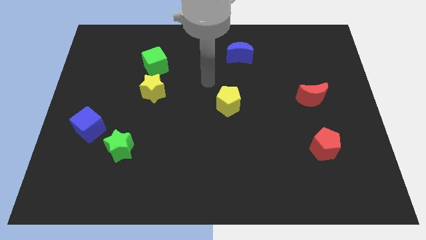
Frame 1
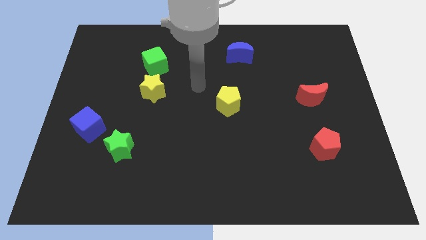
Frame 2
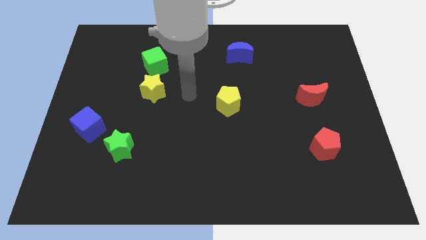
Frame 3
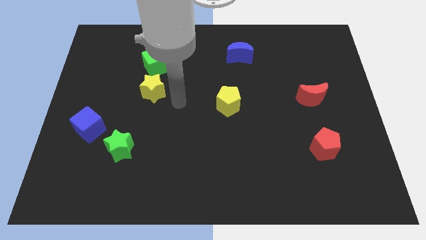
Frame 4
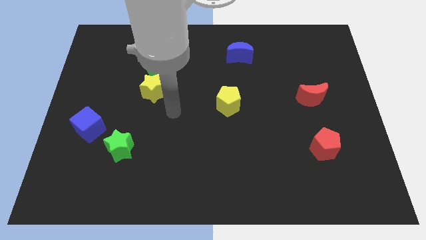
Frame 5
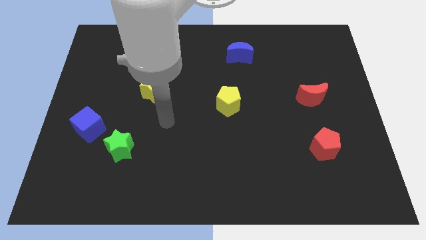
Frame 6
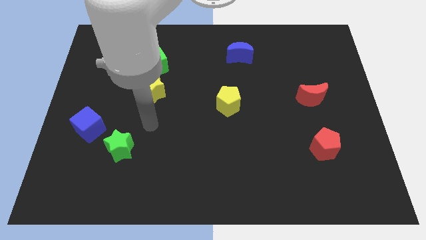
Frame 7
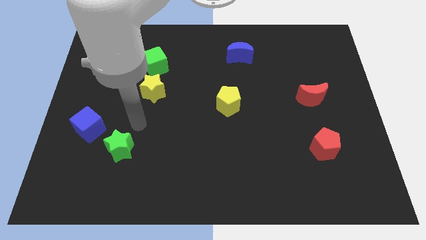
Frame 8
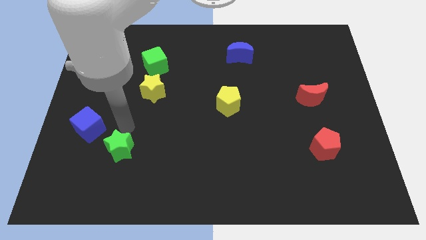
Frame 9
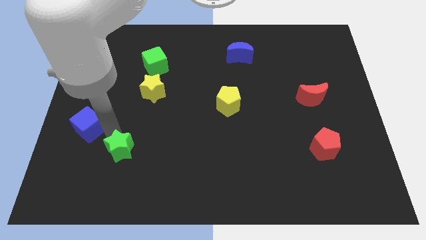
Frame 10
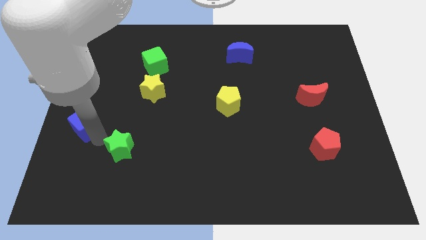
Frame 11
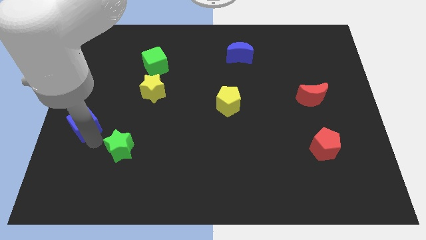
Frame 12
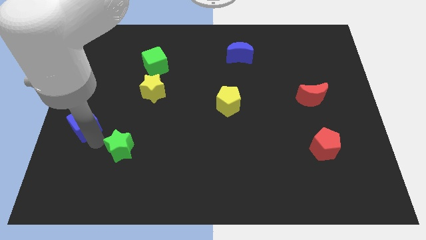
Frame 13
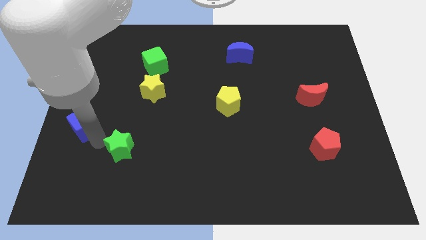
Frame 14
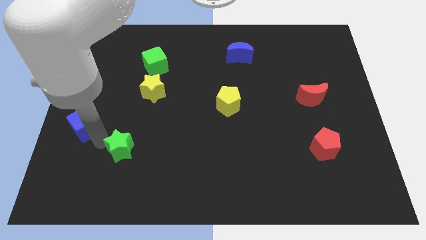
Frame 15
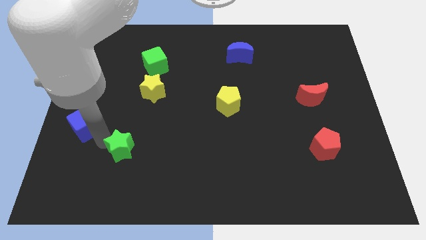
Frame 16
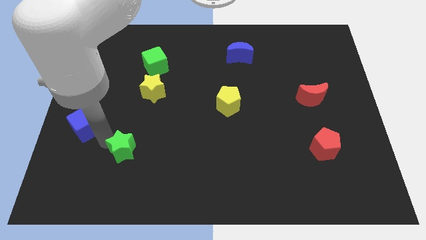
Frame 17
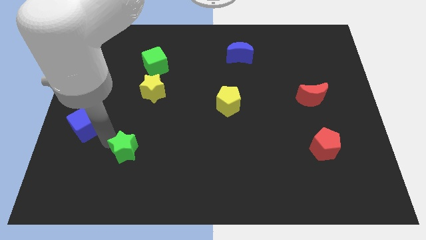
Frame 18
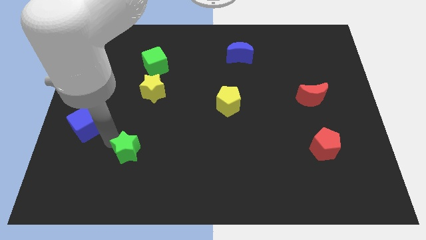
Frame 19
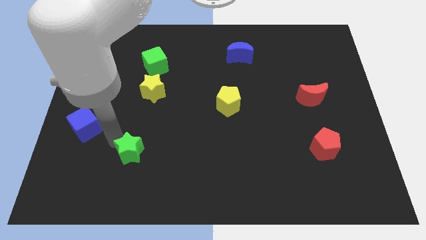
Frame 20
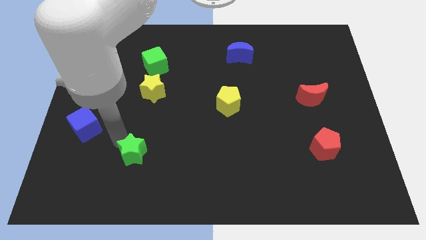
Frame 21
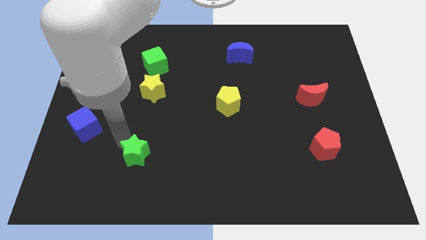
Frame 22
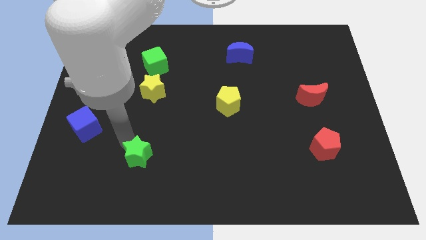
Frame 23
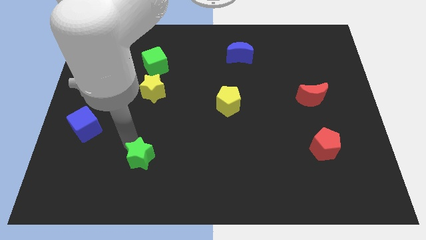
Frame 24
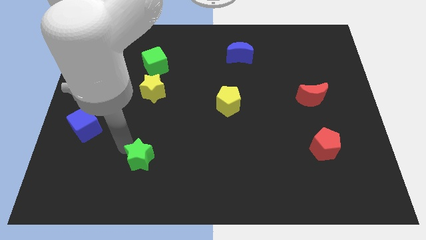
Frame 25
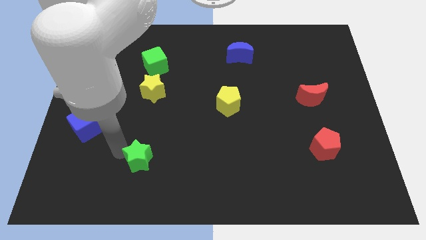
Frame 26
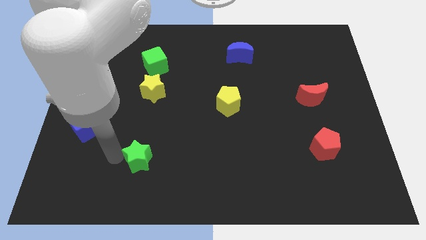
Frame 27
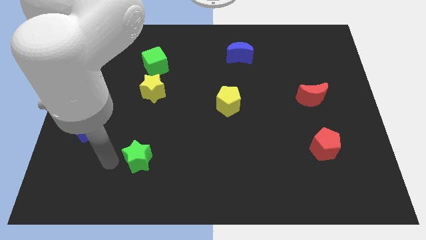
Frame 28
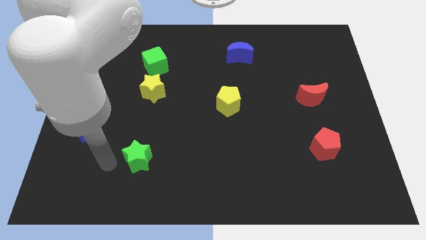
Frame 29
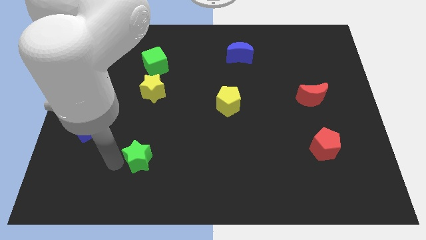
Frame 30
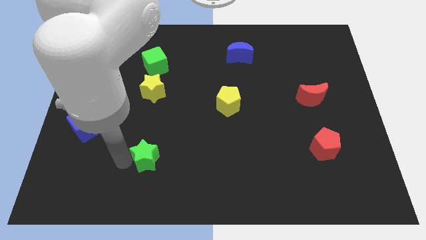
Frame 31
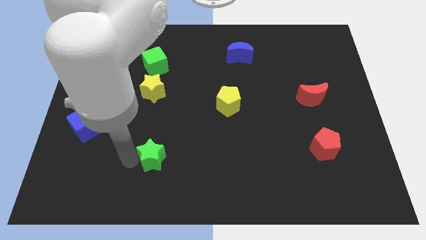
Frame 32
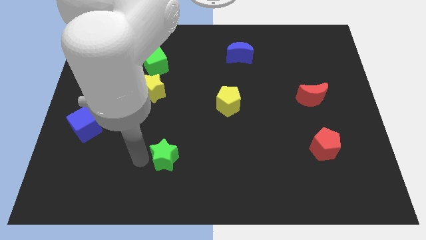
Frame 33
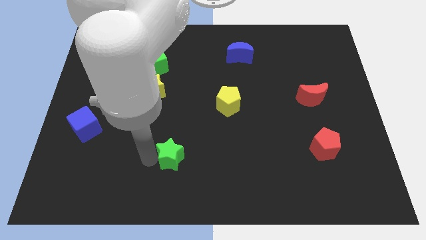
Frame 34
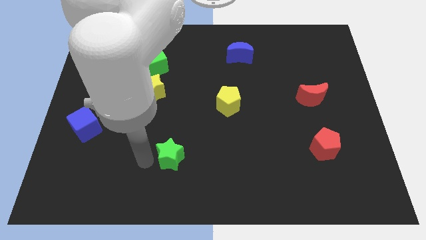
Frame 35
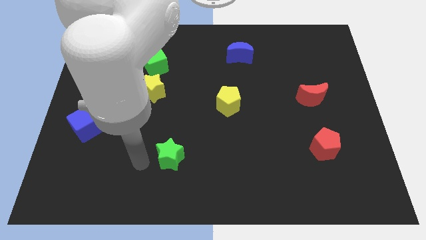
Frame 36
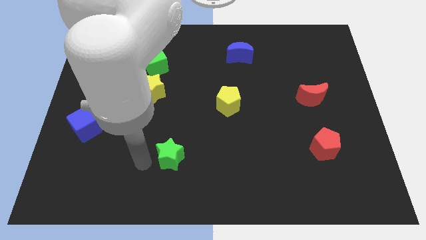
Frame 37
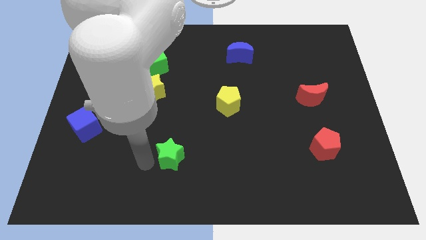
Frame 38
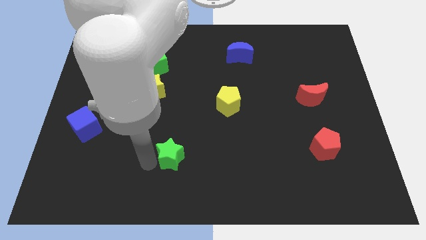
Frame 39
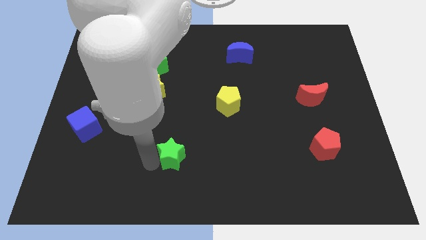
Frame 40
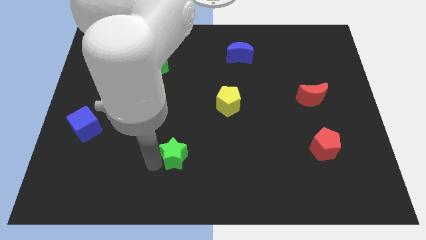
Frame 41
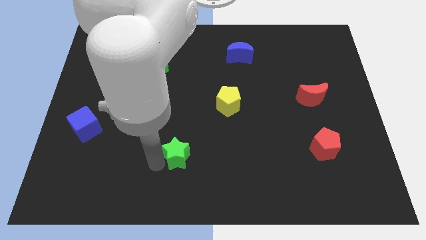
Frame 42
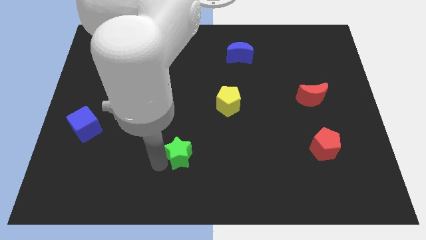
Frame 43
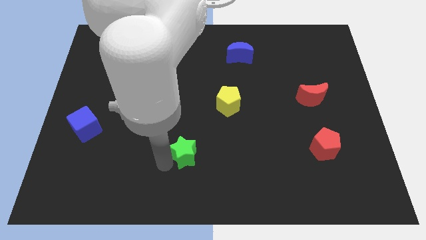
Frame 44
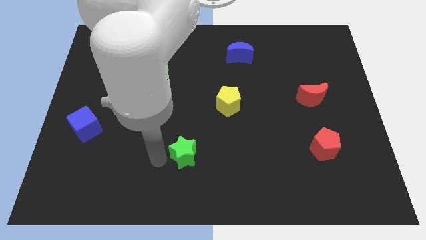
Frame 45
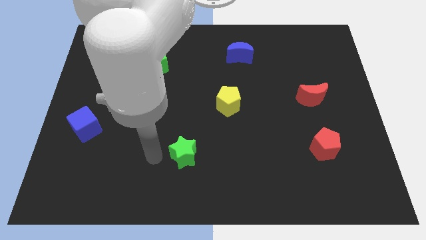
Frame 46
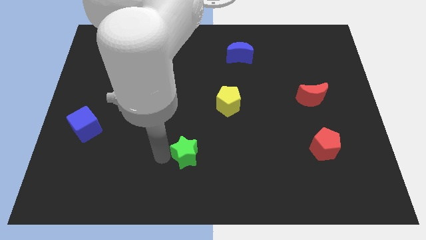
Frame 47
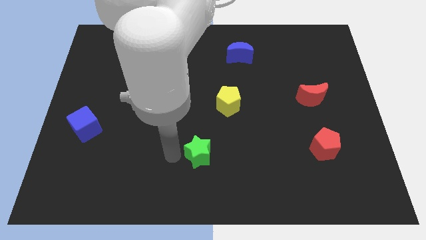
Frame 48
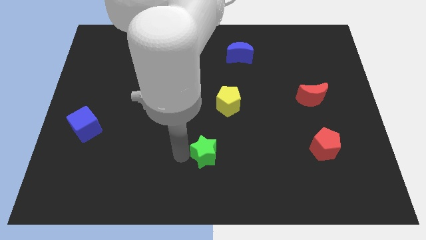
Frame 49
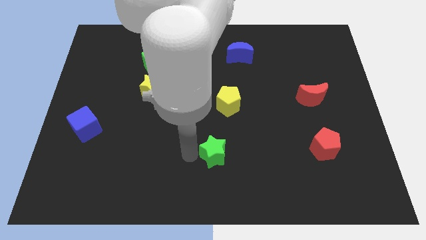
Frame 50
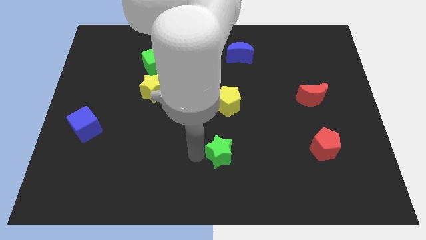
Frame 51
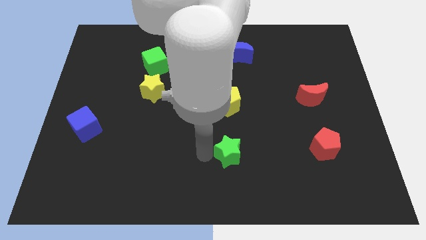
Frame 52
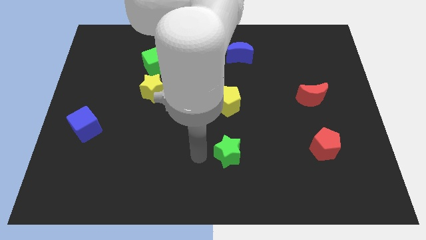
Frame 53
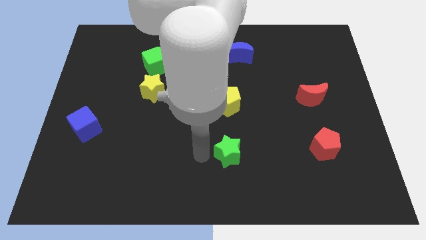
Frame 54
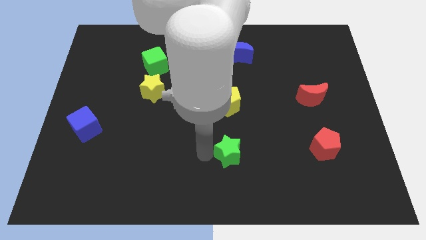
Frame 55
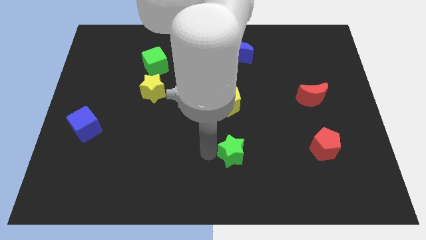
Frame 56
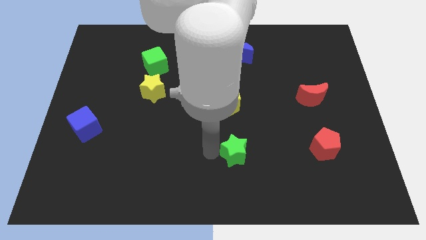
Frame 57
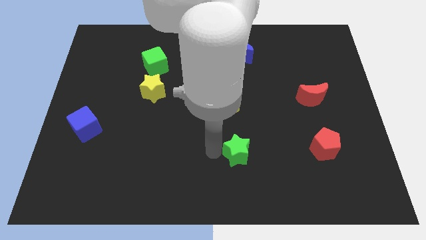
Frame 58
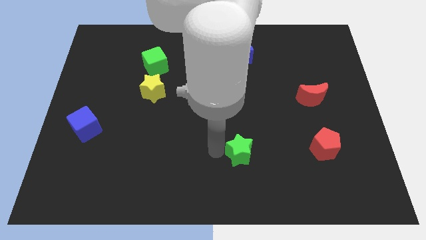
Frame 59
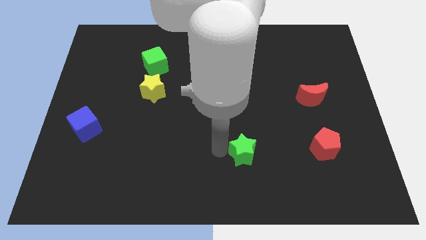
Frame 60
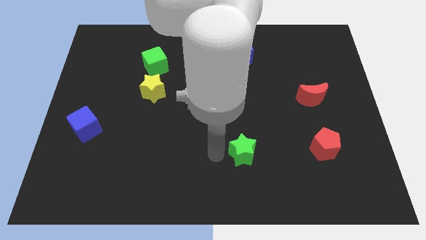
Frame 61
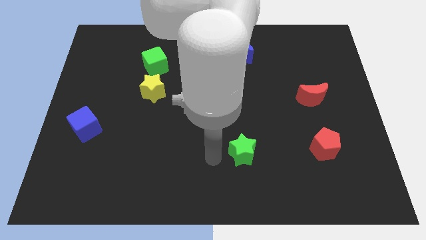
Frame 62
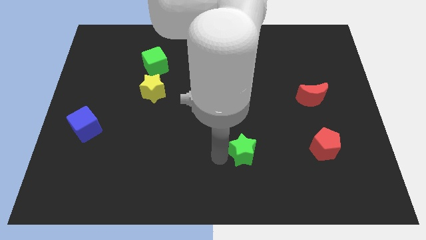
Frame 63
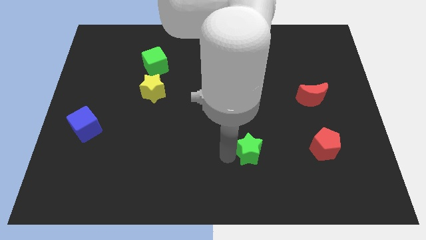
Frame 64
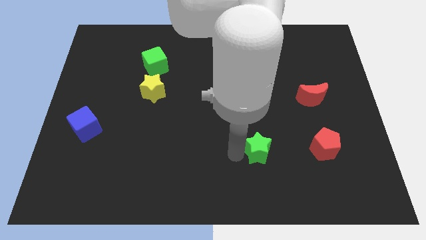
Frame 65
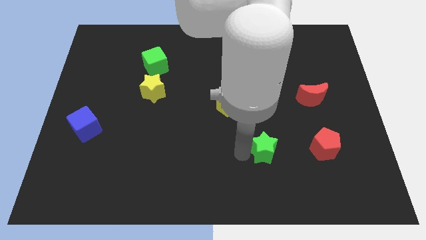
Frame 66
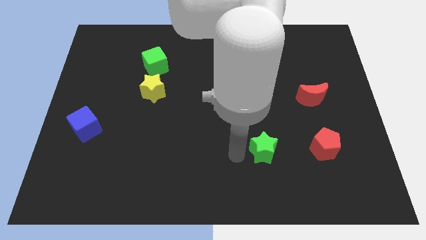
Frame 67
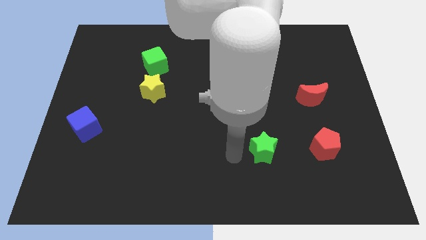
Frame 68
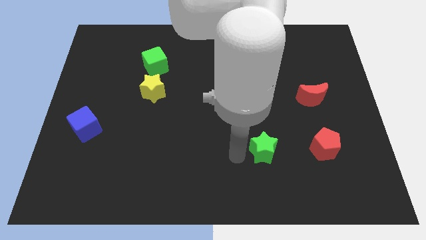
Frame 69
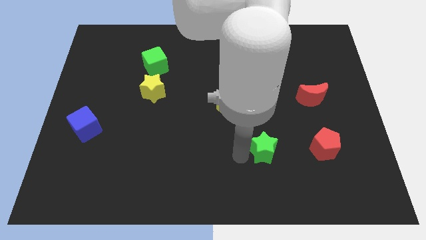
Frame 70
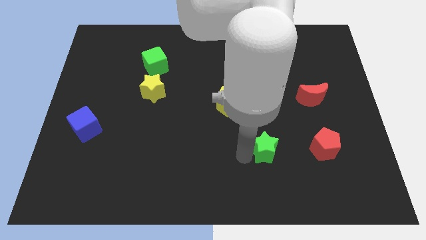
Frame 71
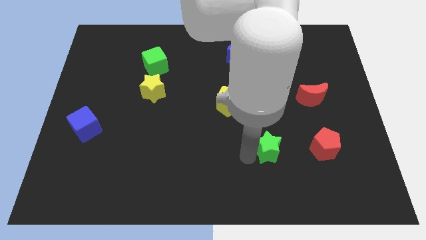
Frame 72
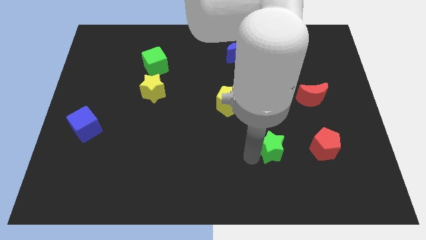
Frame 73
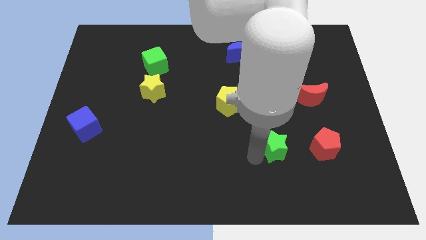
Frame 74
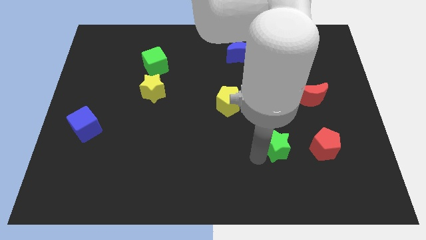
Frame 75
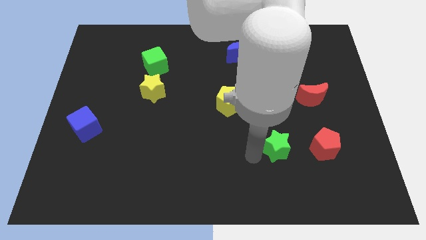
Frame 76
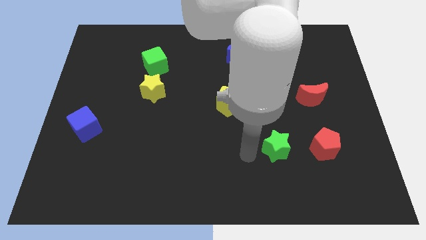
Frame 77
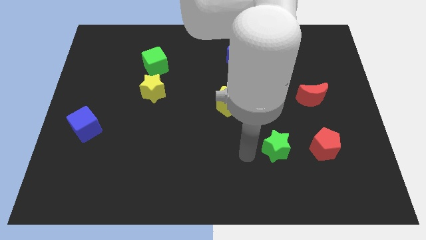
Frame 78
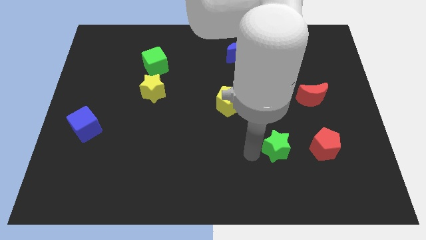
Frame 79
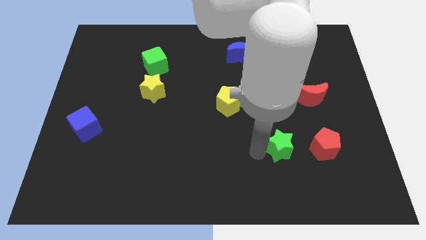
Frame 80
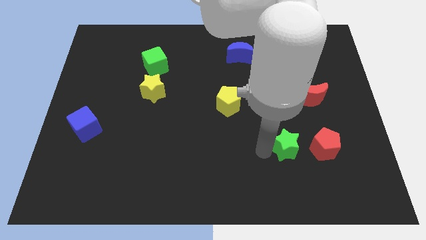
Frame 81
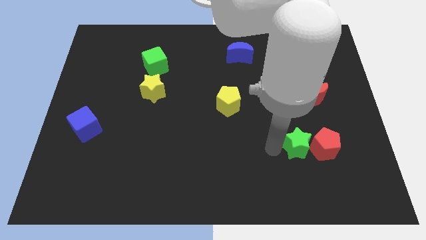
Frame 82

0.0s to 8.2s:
push the green star close to the red pentagon
